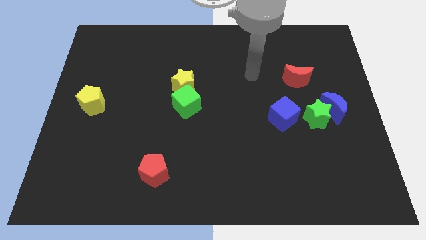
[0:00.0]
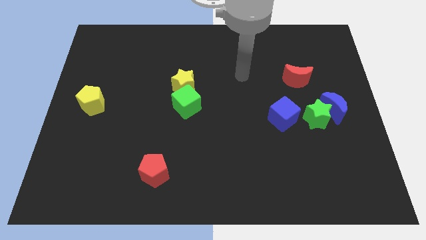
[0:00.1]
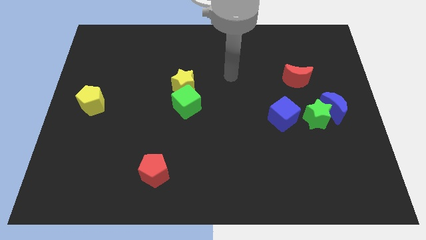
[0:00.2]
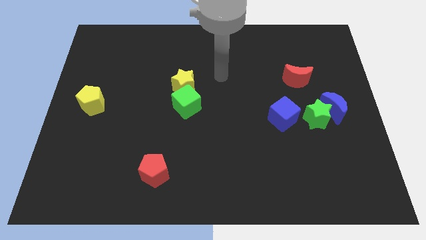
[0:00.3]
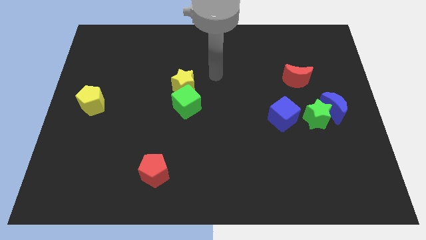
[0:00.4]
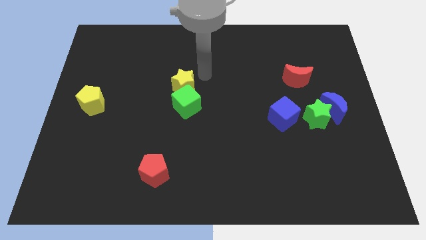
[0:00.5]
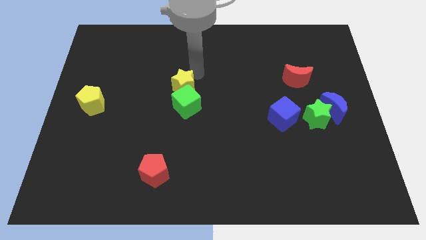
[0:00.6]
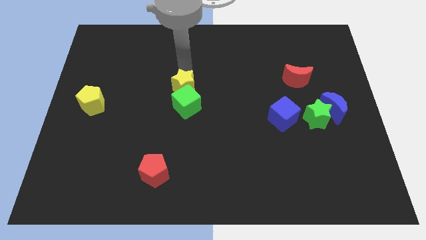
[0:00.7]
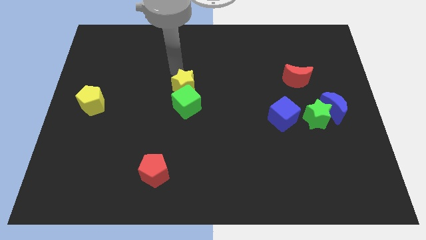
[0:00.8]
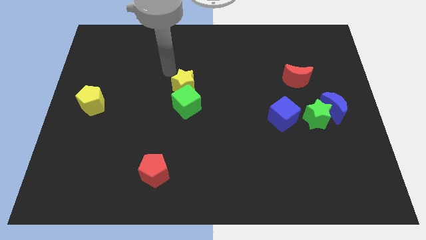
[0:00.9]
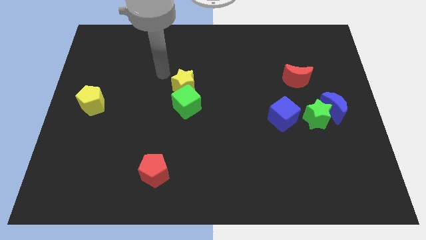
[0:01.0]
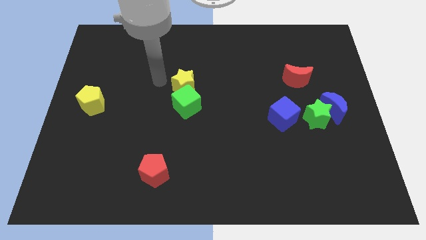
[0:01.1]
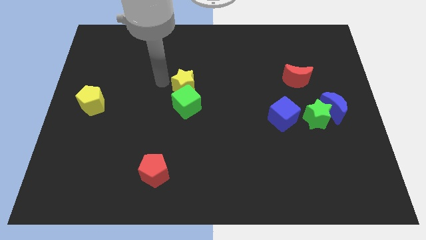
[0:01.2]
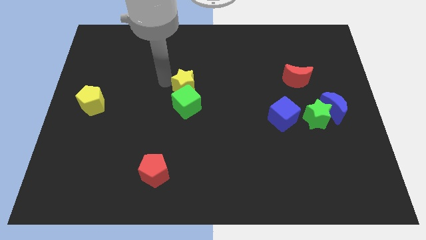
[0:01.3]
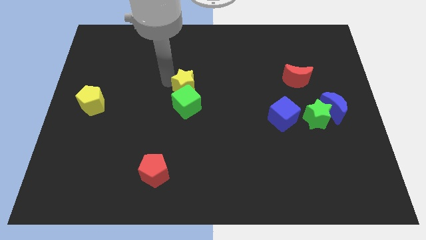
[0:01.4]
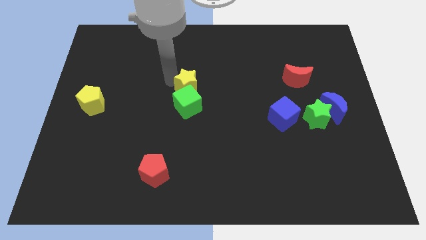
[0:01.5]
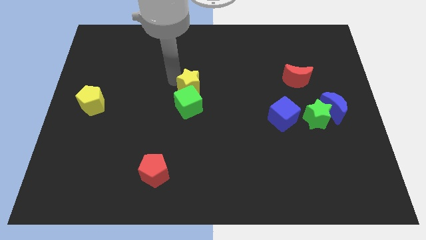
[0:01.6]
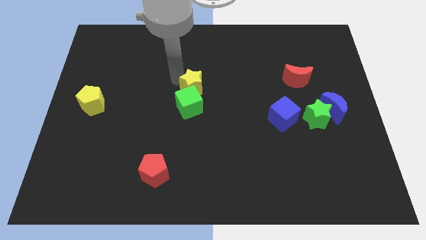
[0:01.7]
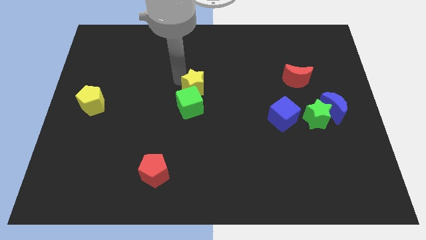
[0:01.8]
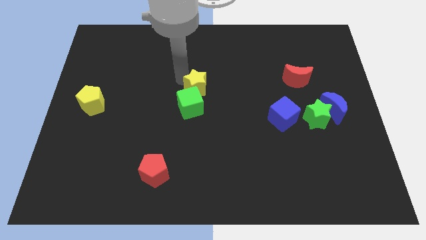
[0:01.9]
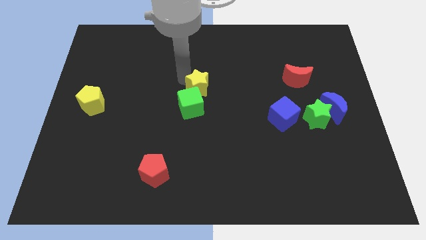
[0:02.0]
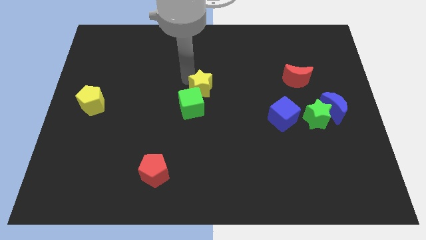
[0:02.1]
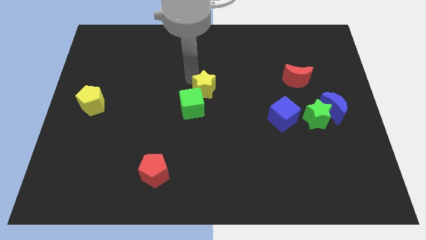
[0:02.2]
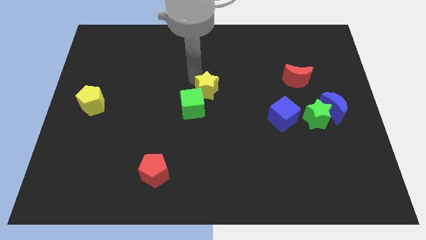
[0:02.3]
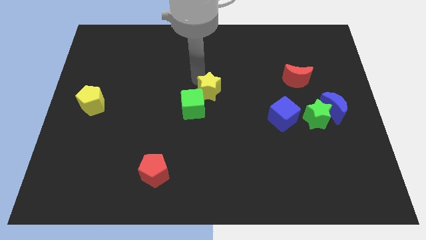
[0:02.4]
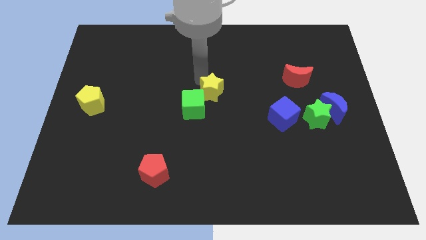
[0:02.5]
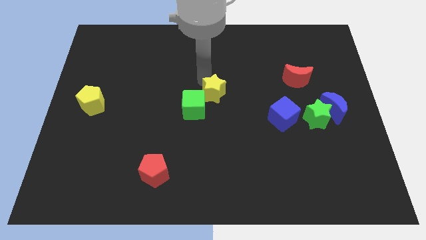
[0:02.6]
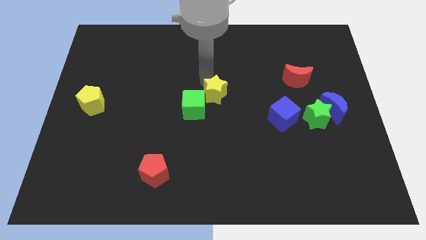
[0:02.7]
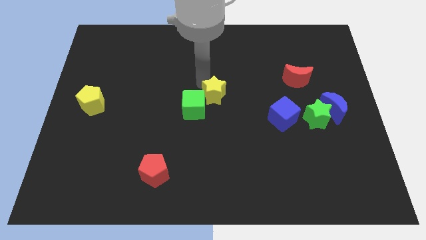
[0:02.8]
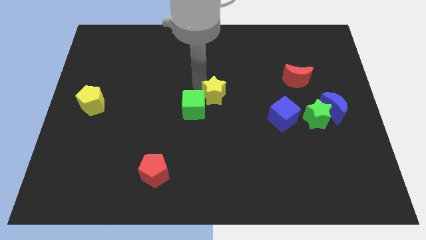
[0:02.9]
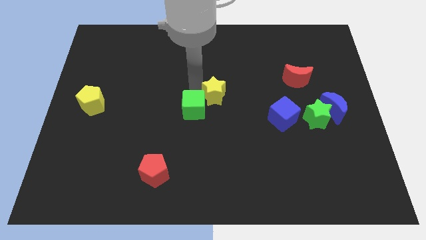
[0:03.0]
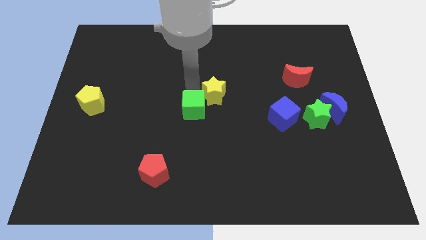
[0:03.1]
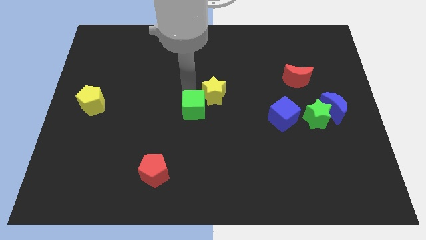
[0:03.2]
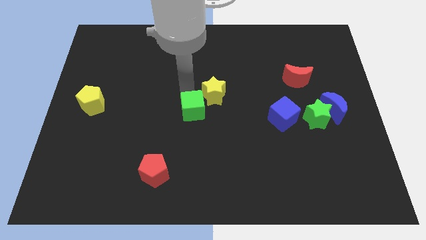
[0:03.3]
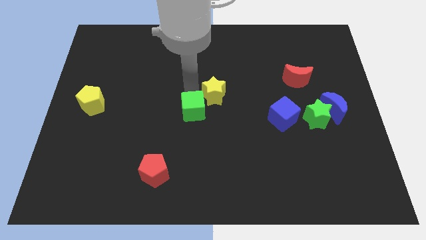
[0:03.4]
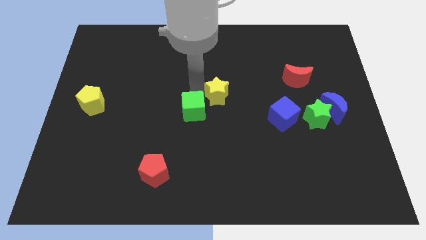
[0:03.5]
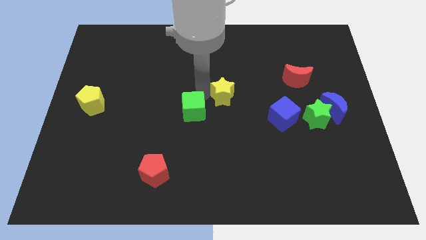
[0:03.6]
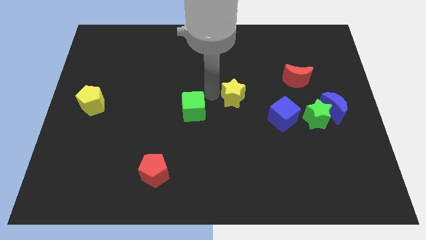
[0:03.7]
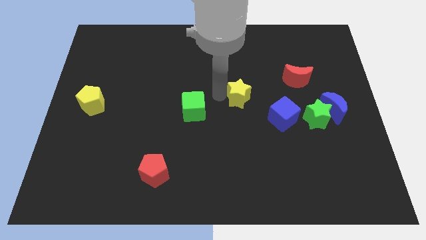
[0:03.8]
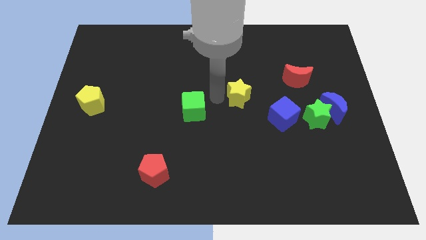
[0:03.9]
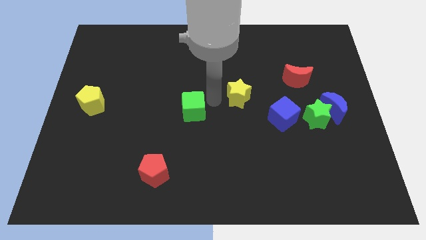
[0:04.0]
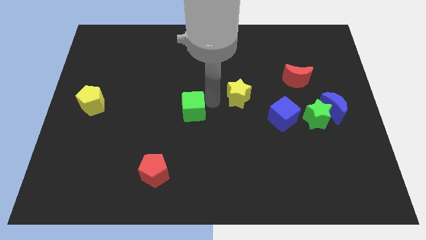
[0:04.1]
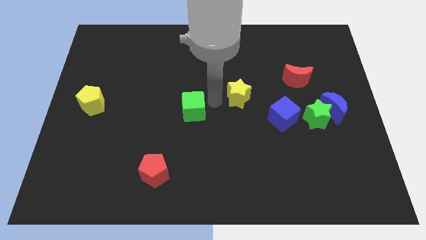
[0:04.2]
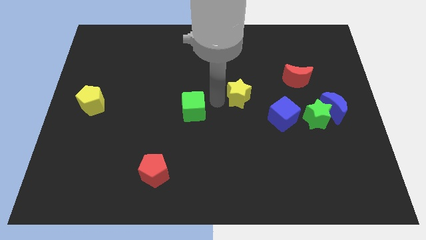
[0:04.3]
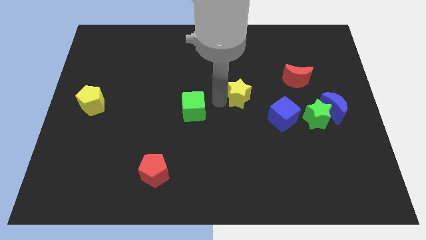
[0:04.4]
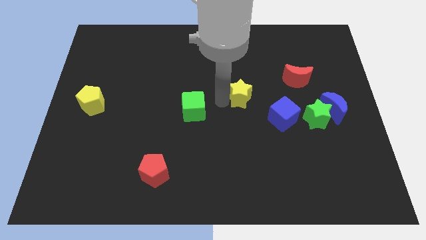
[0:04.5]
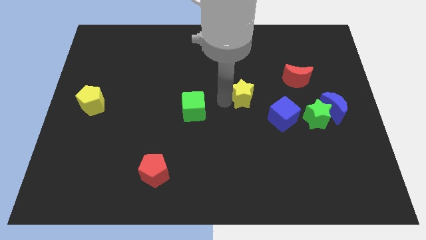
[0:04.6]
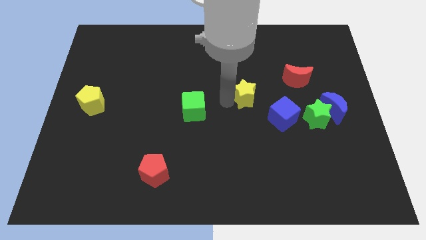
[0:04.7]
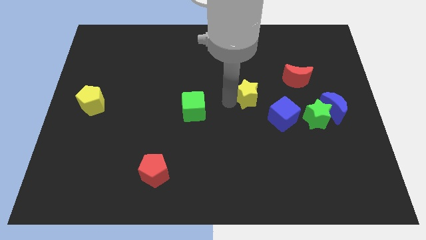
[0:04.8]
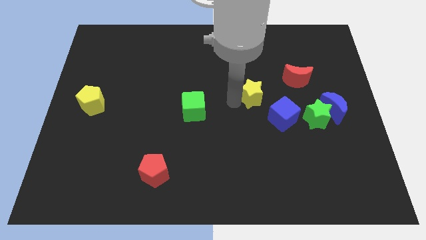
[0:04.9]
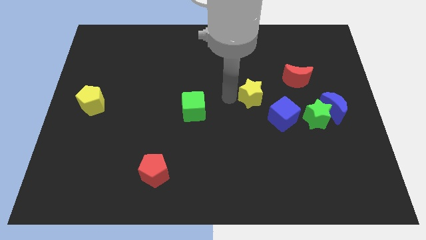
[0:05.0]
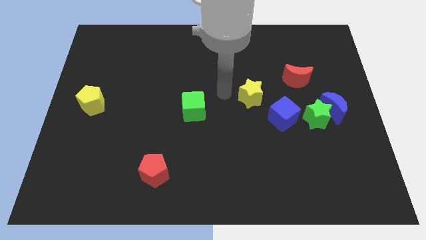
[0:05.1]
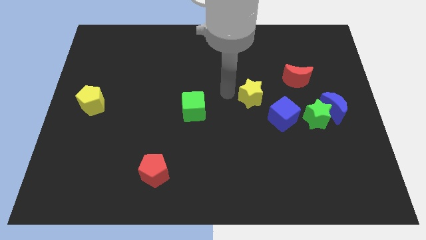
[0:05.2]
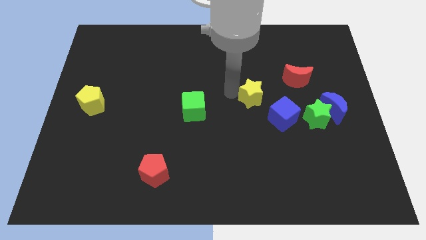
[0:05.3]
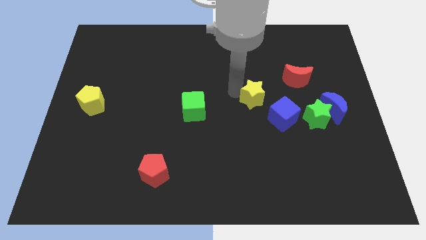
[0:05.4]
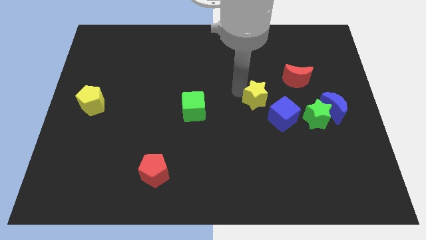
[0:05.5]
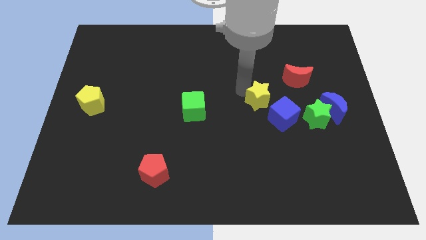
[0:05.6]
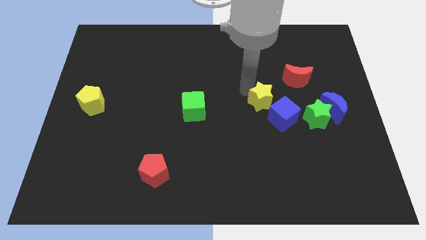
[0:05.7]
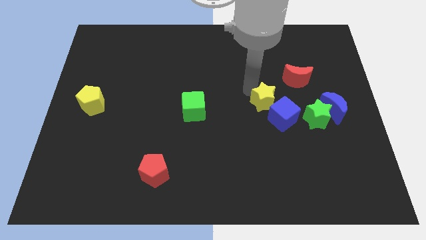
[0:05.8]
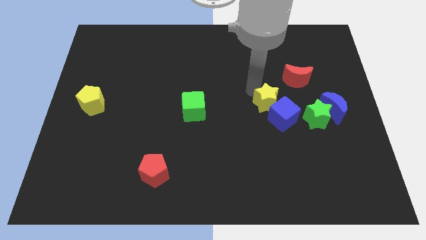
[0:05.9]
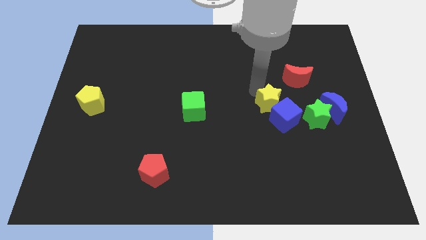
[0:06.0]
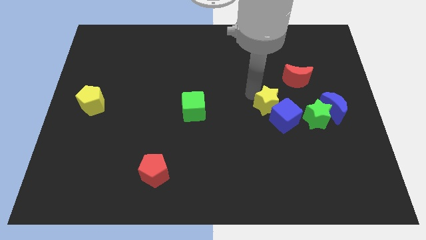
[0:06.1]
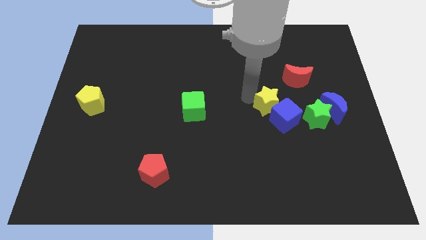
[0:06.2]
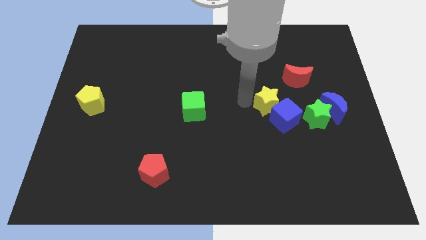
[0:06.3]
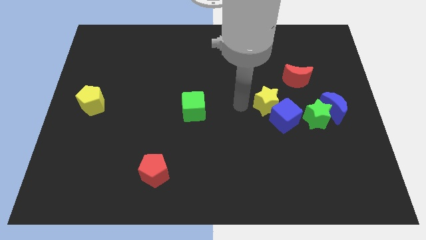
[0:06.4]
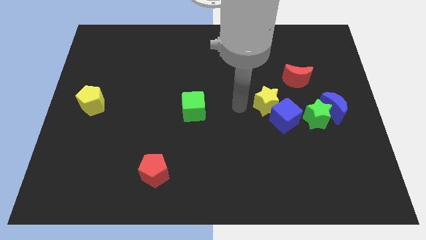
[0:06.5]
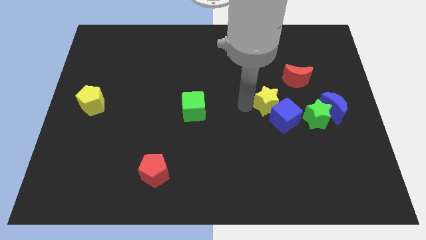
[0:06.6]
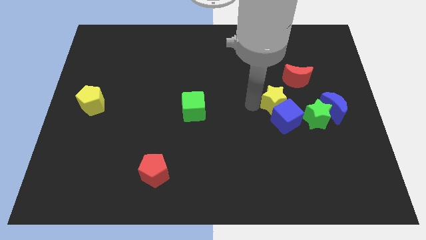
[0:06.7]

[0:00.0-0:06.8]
move the yellow star to the top left of the green star
